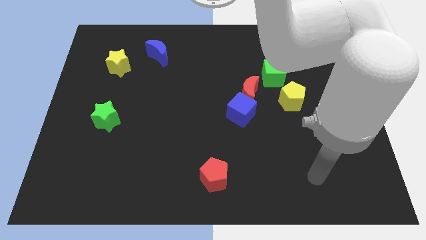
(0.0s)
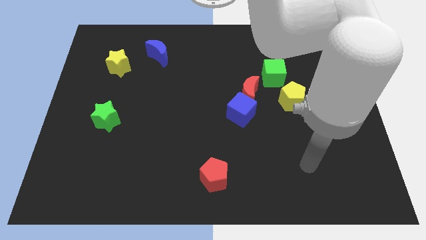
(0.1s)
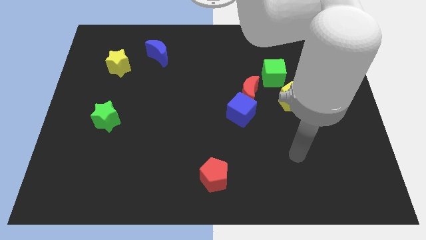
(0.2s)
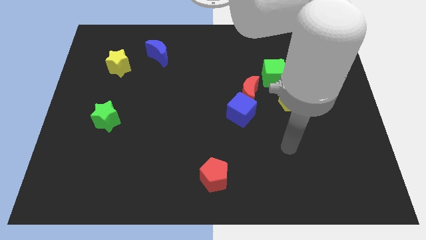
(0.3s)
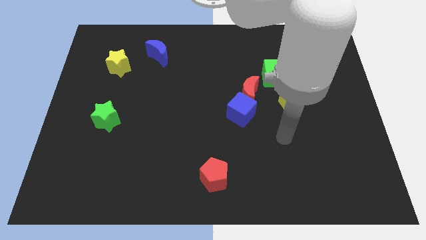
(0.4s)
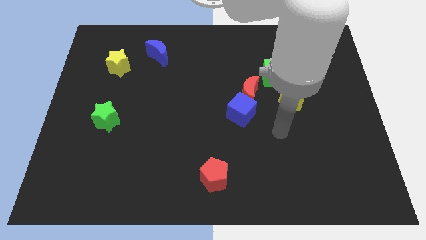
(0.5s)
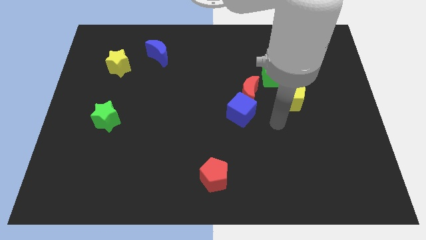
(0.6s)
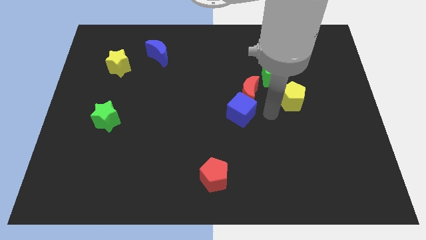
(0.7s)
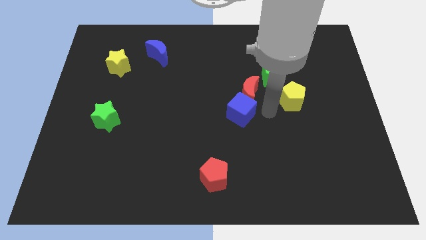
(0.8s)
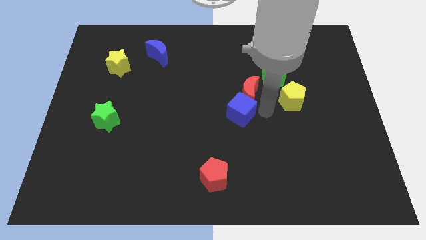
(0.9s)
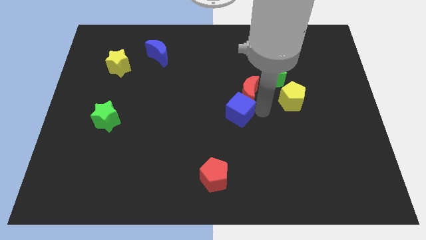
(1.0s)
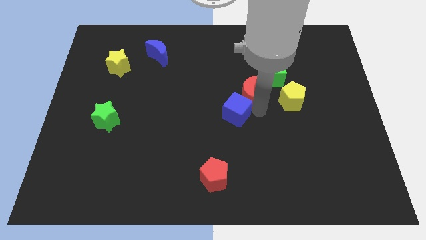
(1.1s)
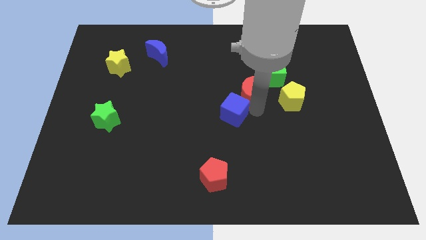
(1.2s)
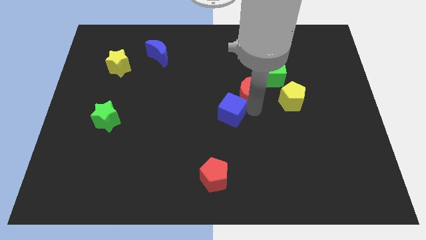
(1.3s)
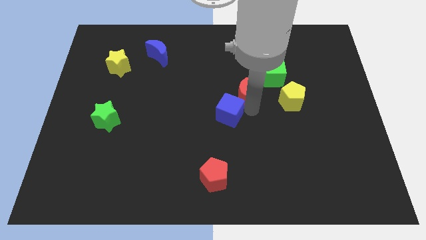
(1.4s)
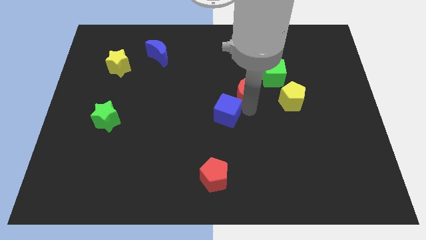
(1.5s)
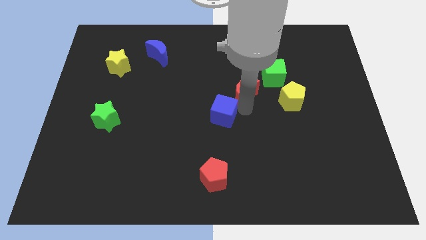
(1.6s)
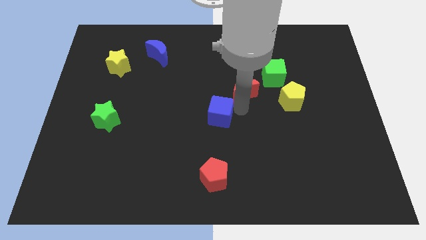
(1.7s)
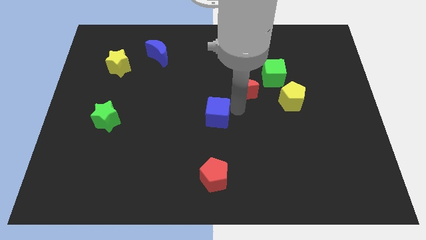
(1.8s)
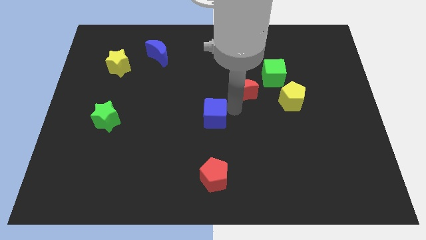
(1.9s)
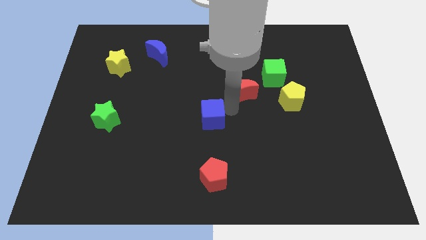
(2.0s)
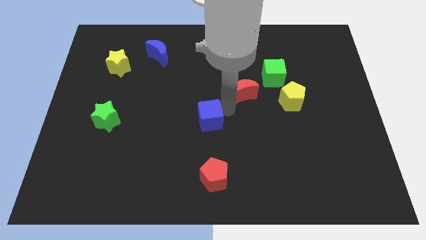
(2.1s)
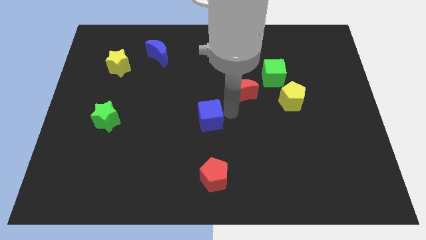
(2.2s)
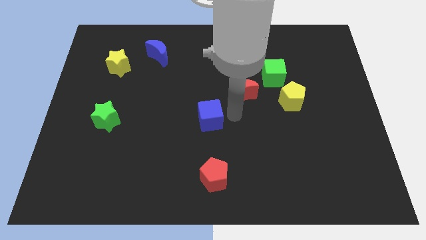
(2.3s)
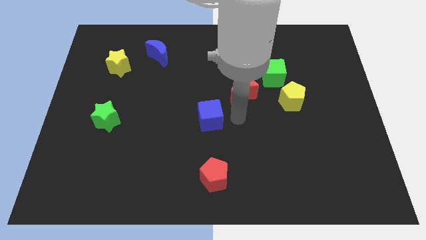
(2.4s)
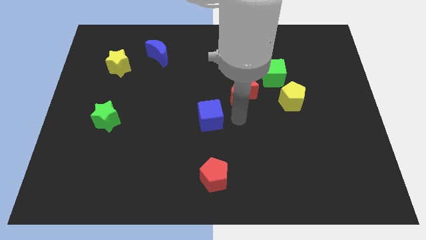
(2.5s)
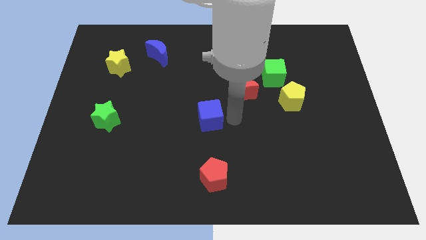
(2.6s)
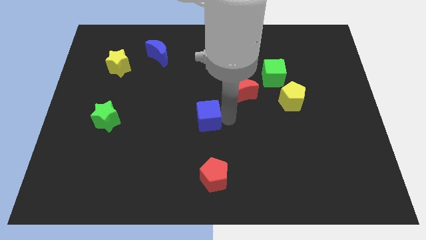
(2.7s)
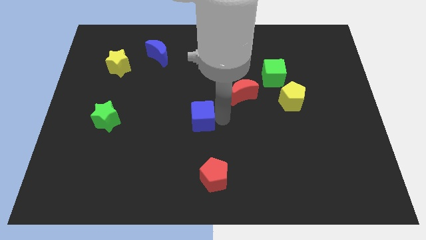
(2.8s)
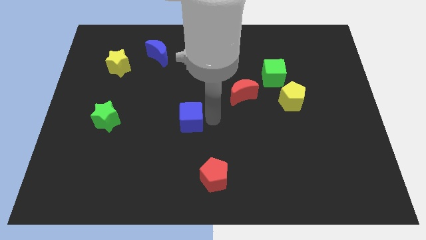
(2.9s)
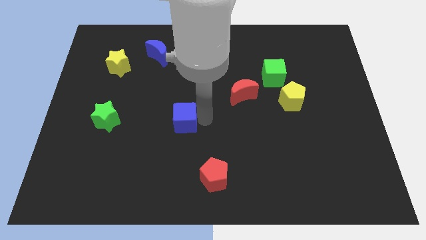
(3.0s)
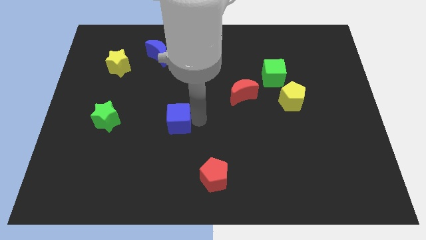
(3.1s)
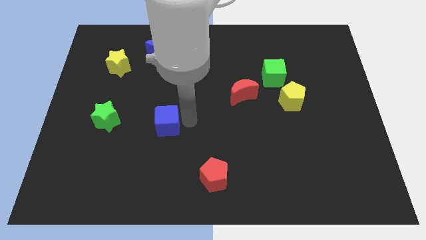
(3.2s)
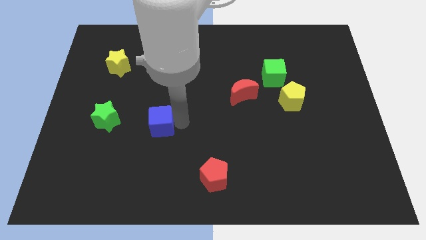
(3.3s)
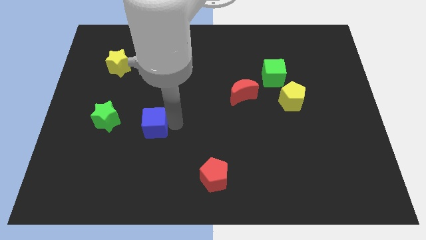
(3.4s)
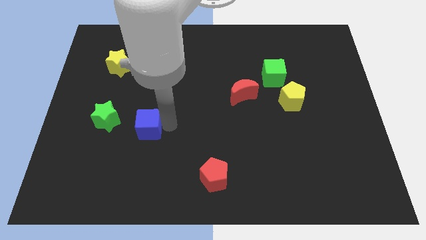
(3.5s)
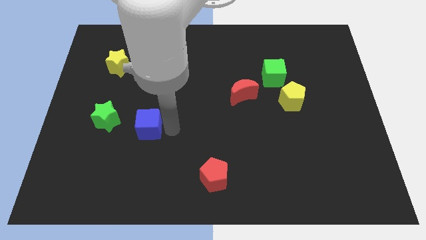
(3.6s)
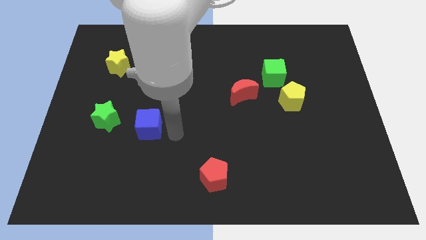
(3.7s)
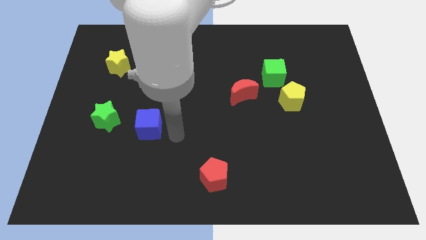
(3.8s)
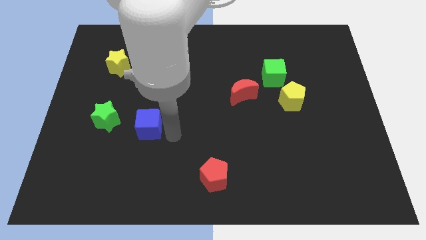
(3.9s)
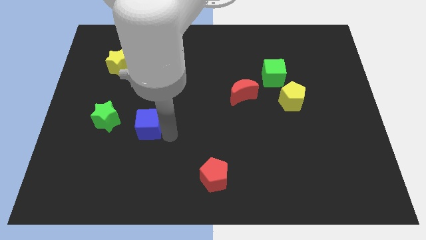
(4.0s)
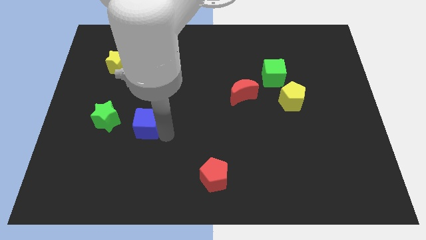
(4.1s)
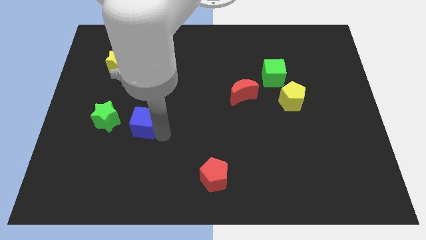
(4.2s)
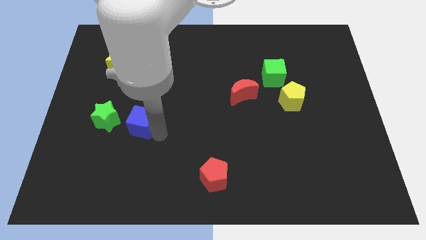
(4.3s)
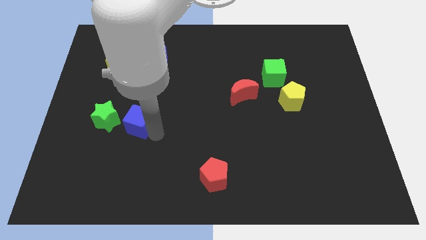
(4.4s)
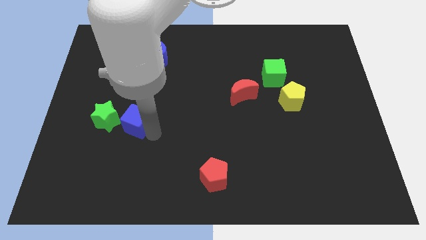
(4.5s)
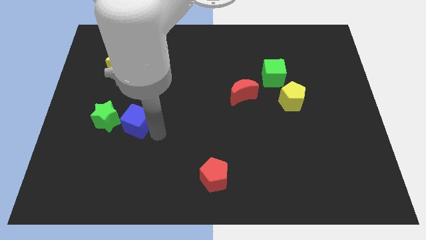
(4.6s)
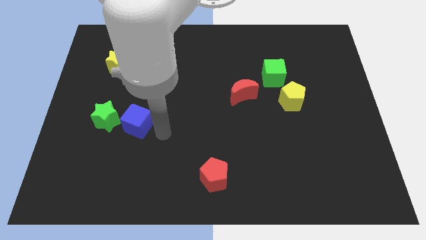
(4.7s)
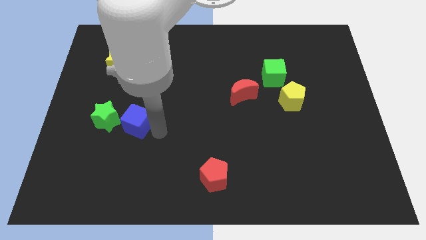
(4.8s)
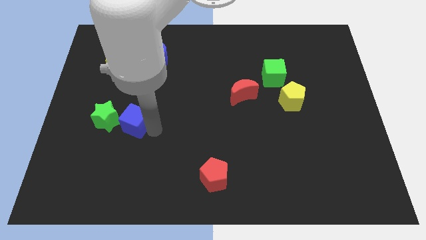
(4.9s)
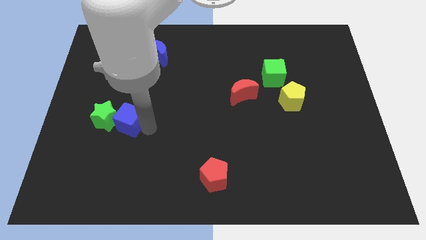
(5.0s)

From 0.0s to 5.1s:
move the blue cube next to the green star

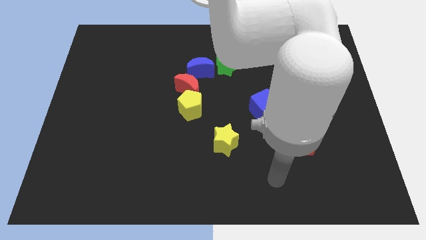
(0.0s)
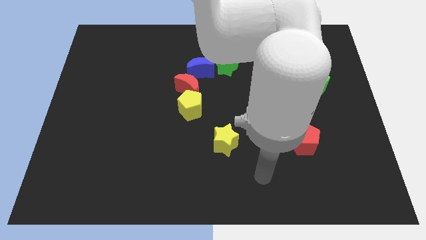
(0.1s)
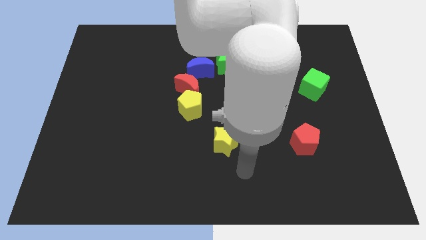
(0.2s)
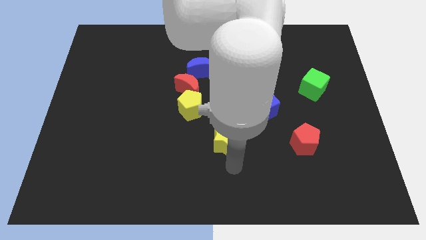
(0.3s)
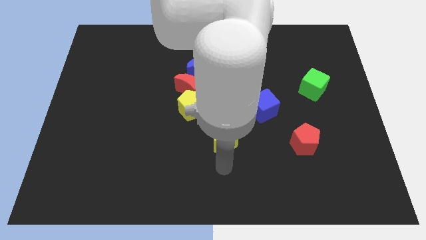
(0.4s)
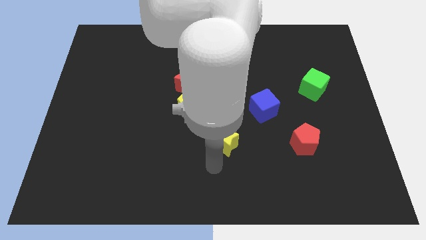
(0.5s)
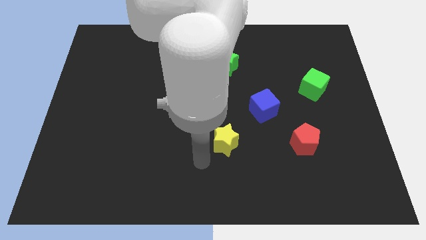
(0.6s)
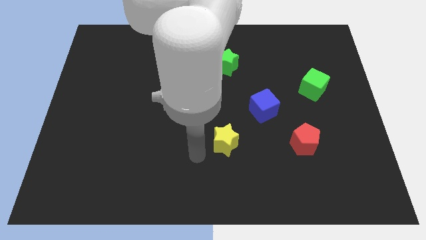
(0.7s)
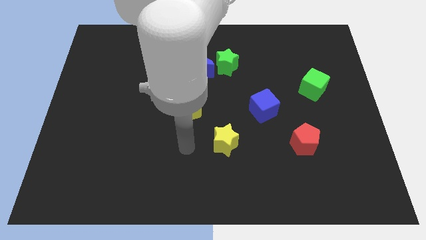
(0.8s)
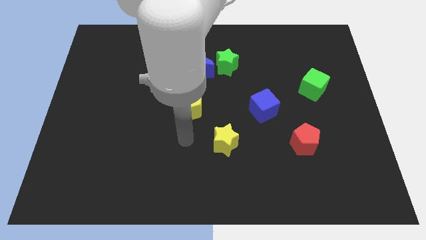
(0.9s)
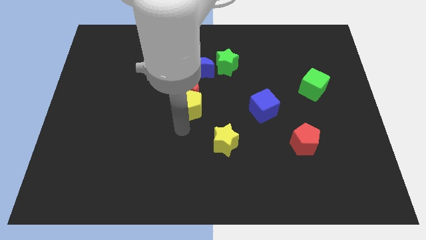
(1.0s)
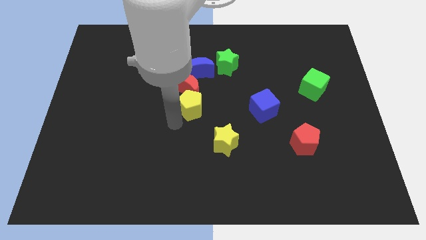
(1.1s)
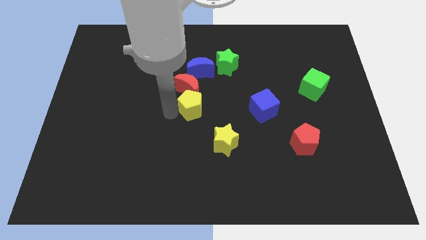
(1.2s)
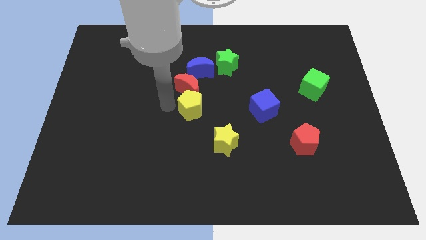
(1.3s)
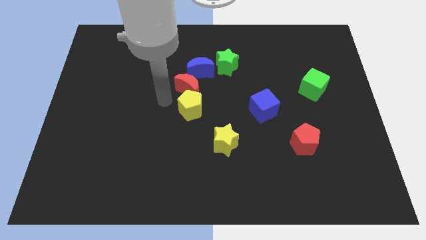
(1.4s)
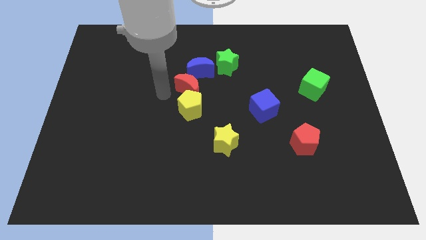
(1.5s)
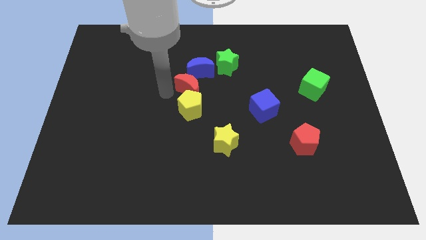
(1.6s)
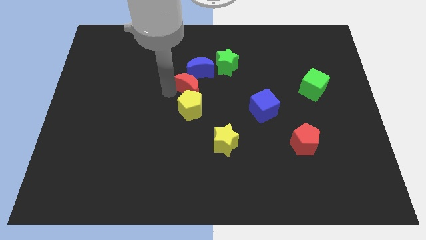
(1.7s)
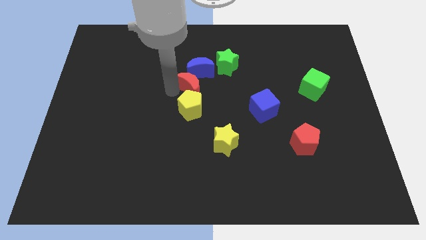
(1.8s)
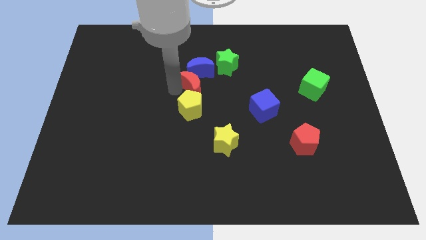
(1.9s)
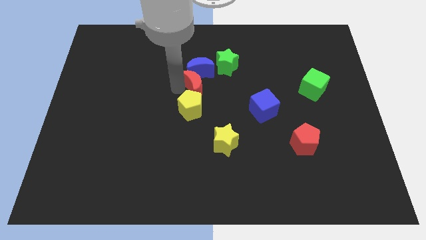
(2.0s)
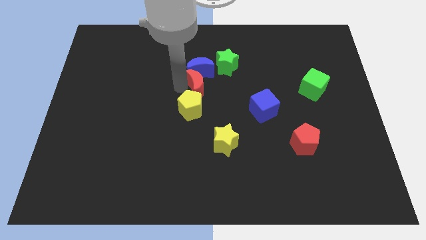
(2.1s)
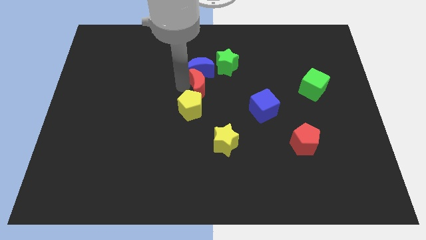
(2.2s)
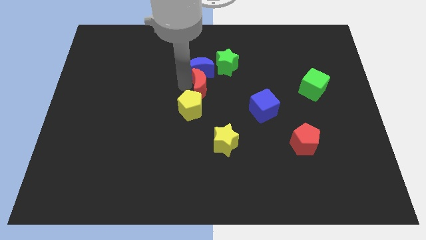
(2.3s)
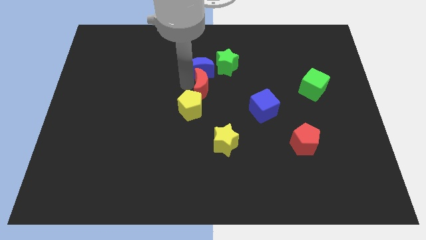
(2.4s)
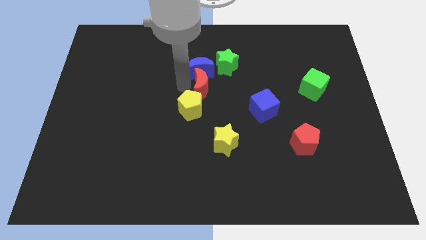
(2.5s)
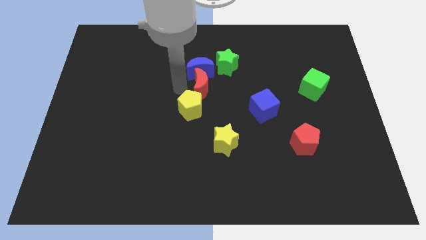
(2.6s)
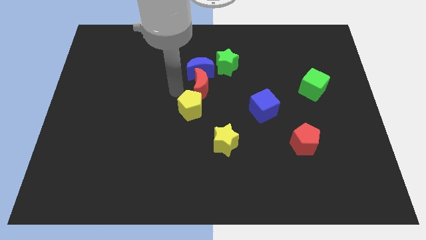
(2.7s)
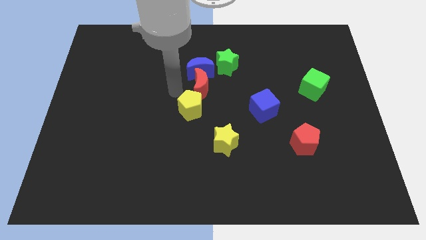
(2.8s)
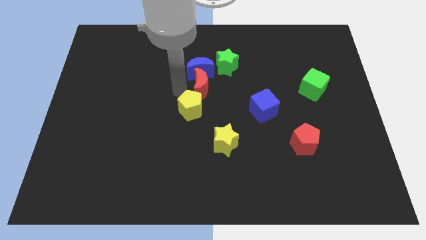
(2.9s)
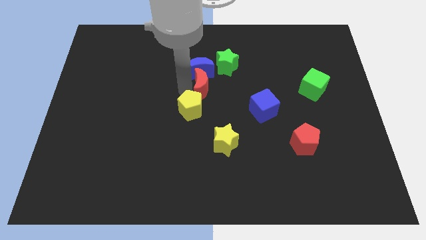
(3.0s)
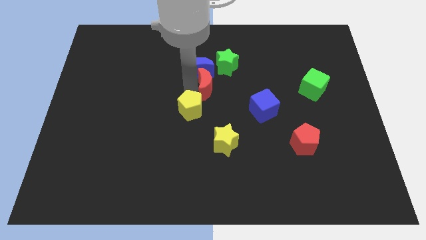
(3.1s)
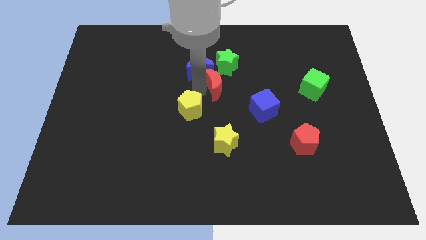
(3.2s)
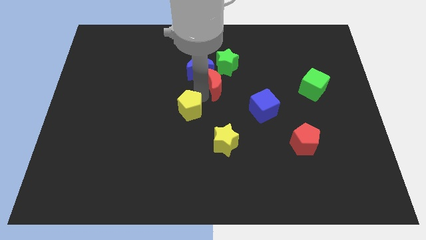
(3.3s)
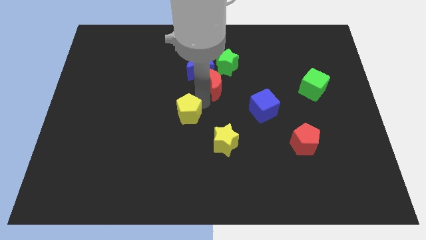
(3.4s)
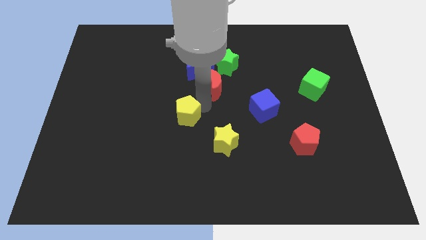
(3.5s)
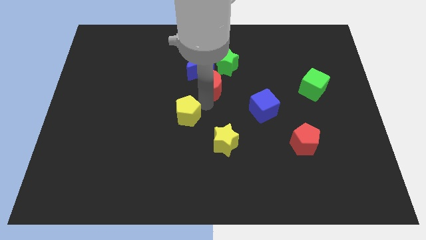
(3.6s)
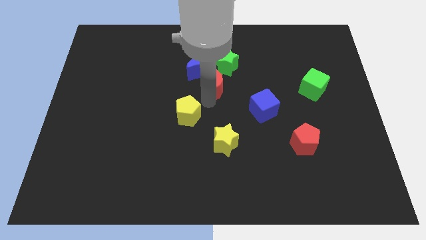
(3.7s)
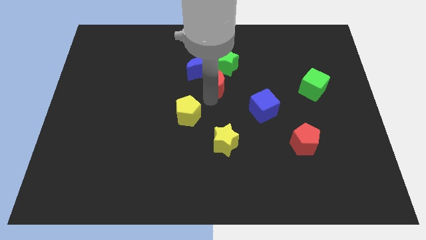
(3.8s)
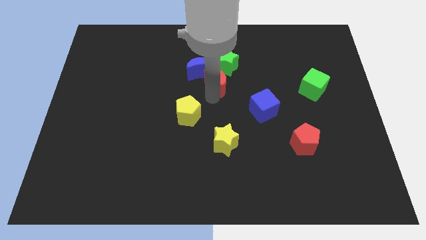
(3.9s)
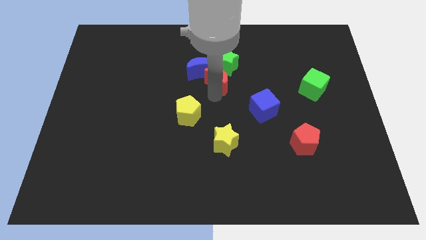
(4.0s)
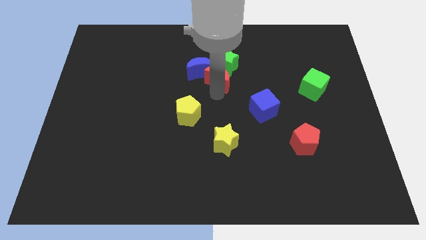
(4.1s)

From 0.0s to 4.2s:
put the red moon close to the green star
